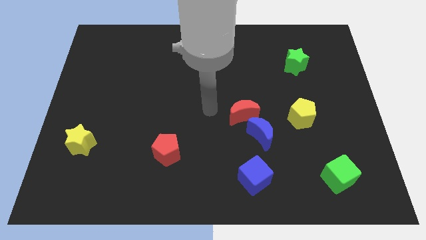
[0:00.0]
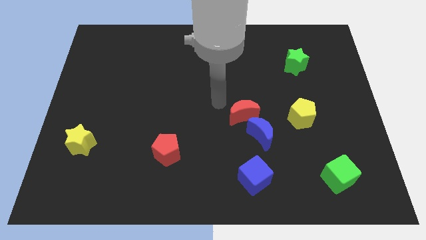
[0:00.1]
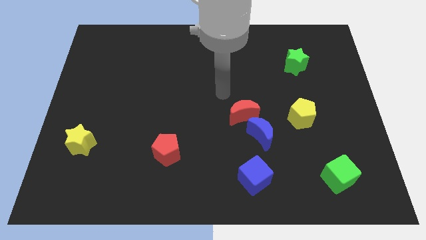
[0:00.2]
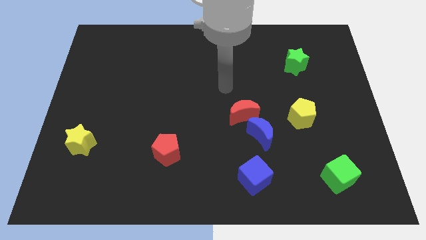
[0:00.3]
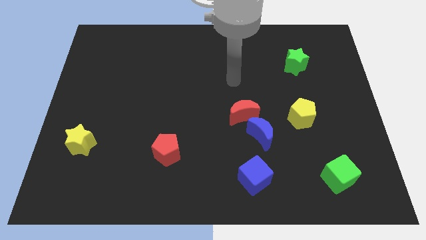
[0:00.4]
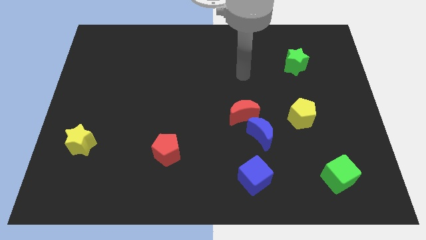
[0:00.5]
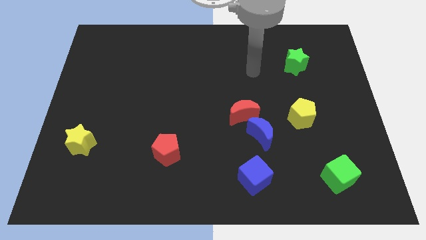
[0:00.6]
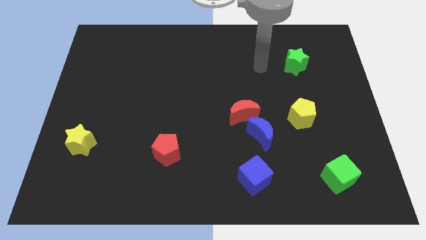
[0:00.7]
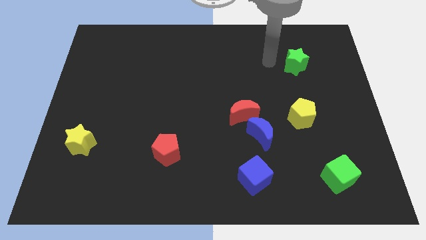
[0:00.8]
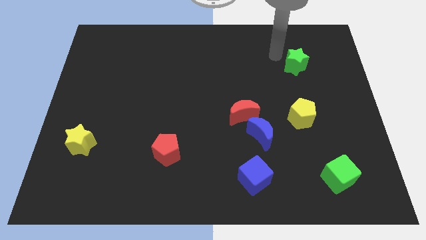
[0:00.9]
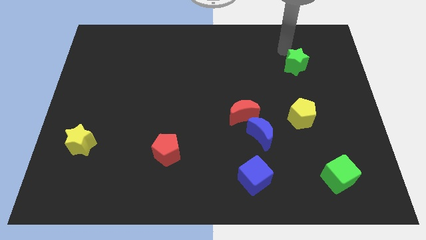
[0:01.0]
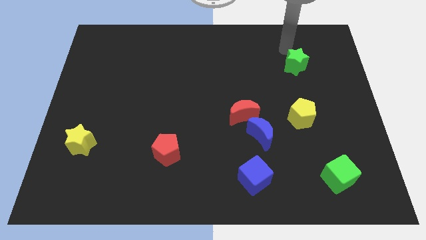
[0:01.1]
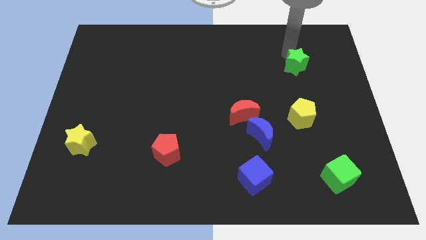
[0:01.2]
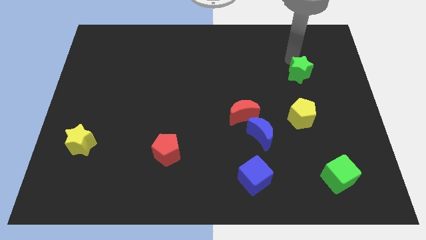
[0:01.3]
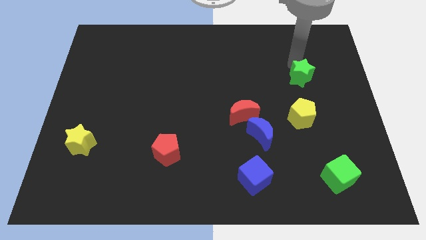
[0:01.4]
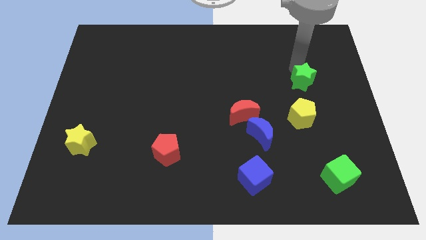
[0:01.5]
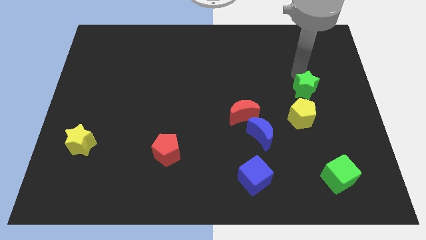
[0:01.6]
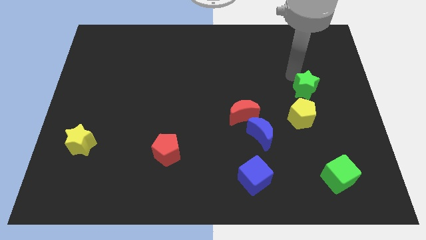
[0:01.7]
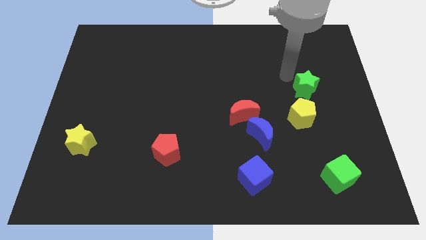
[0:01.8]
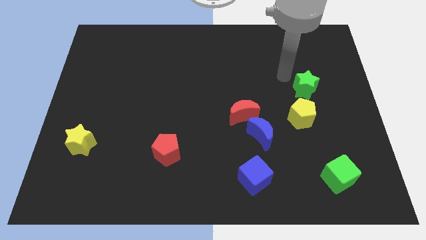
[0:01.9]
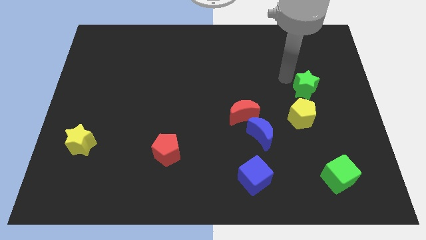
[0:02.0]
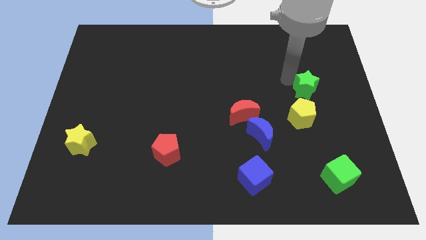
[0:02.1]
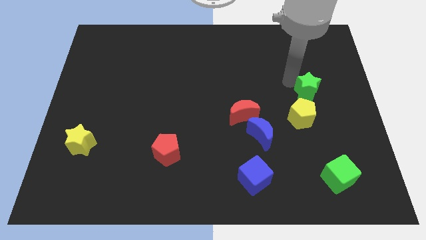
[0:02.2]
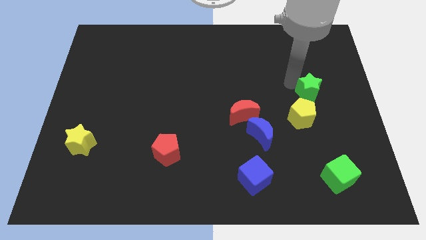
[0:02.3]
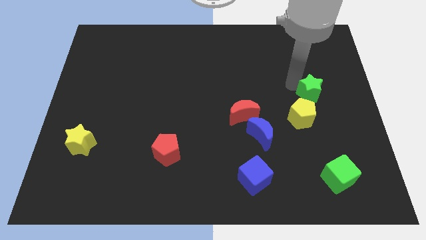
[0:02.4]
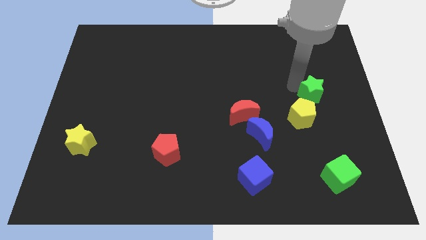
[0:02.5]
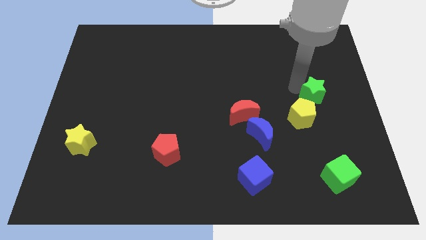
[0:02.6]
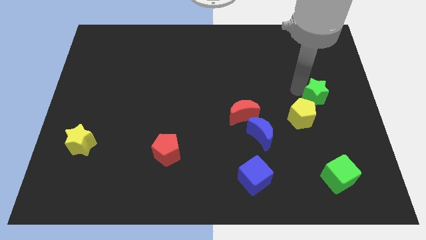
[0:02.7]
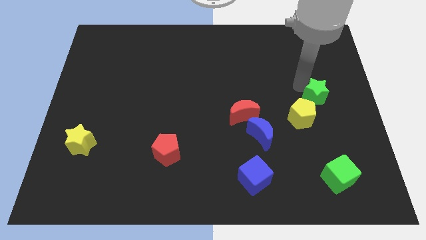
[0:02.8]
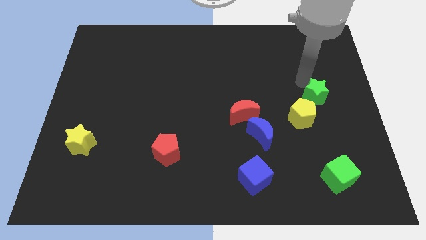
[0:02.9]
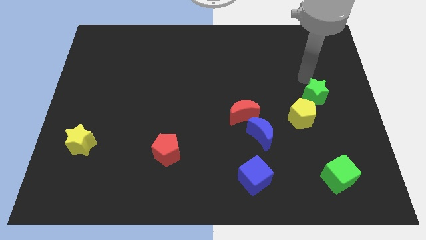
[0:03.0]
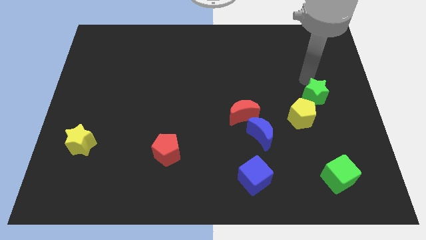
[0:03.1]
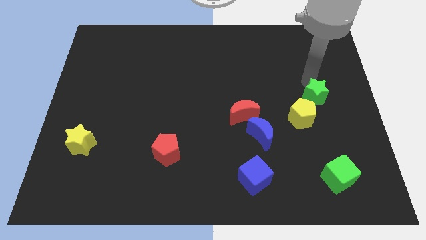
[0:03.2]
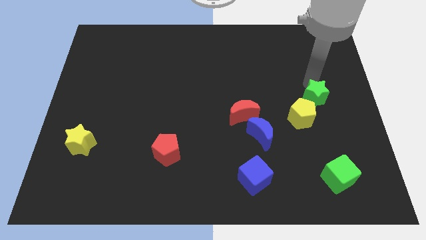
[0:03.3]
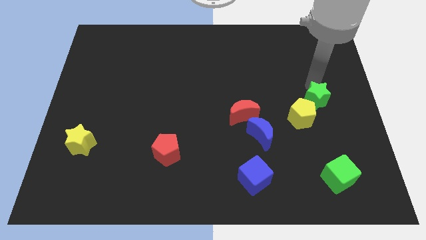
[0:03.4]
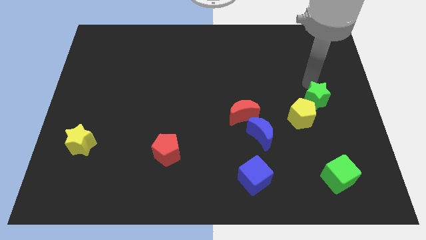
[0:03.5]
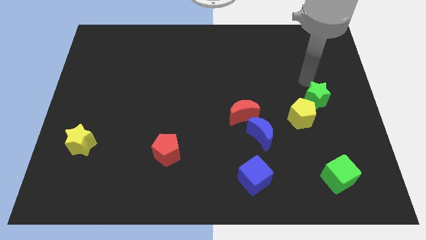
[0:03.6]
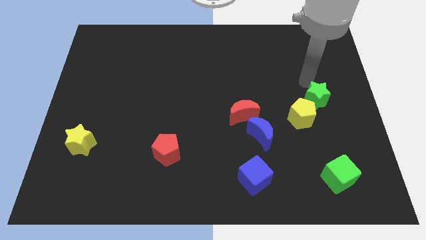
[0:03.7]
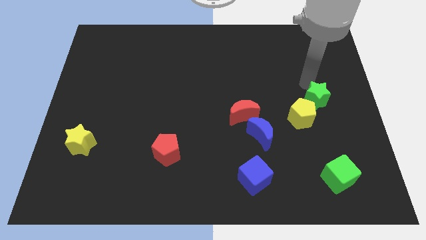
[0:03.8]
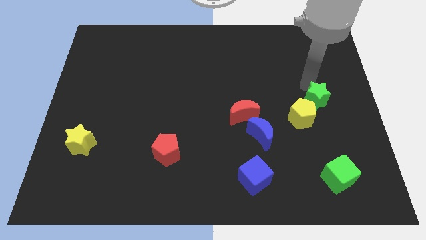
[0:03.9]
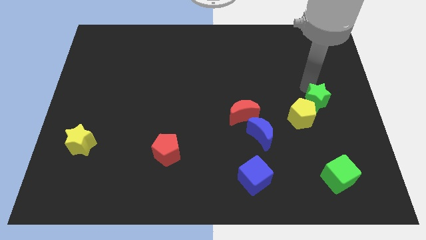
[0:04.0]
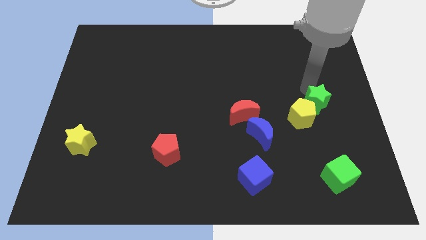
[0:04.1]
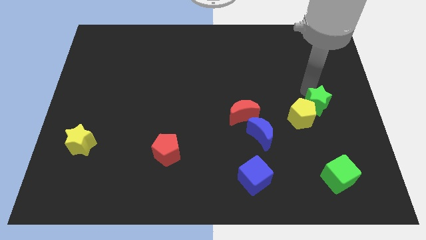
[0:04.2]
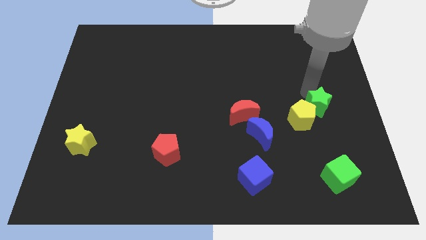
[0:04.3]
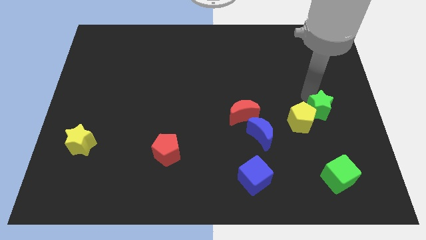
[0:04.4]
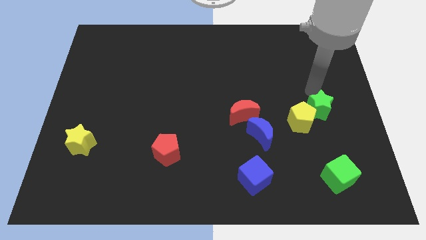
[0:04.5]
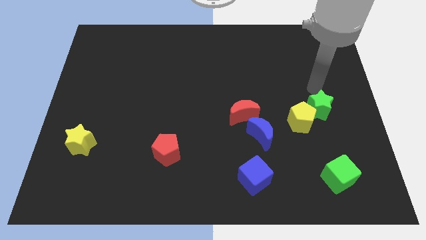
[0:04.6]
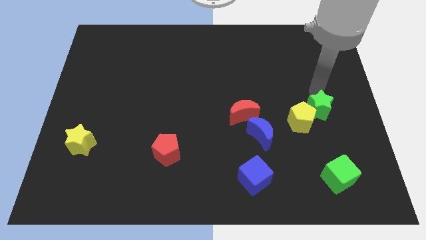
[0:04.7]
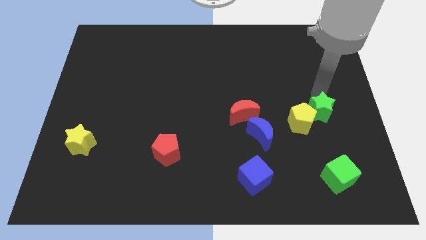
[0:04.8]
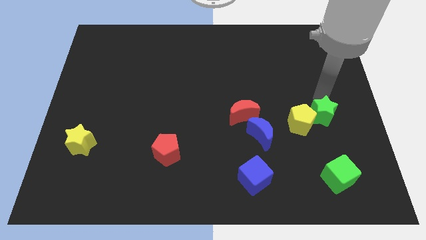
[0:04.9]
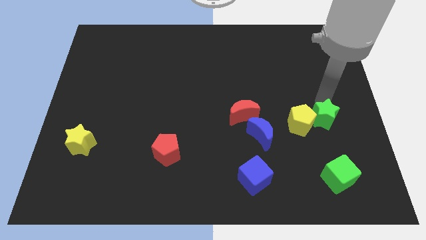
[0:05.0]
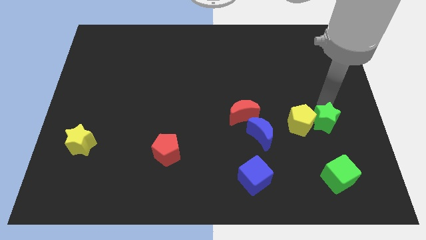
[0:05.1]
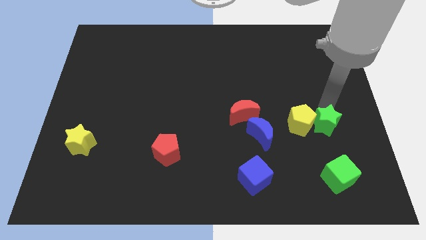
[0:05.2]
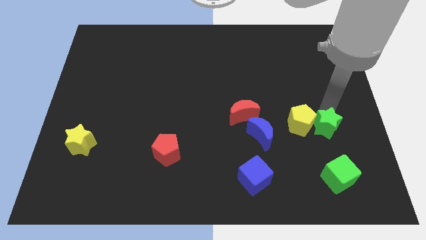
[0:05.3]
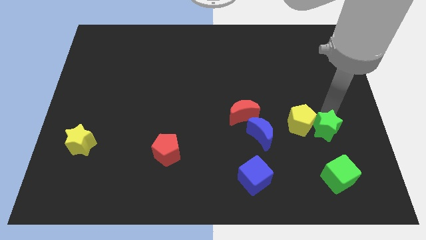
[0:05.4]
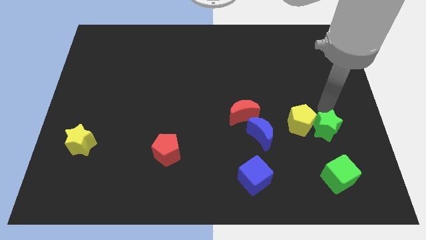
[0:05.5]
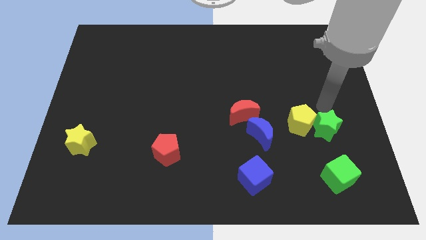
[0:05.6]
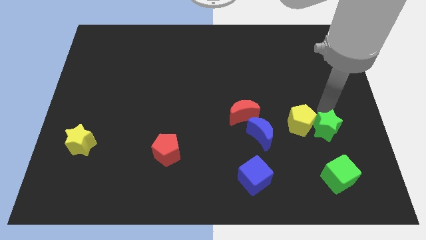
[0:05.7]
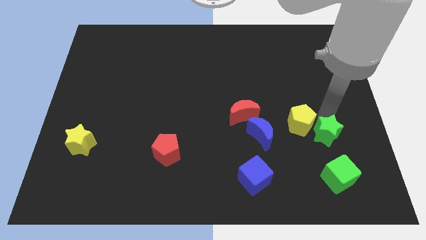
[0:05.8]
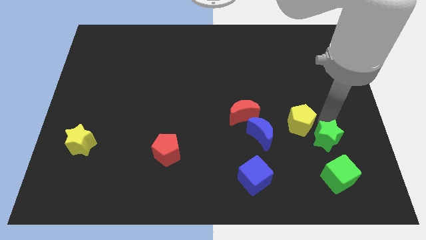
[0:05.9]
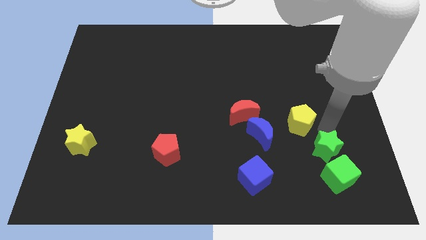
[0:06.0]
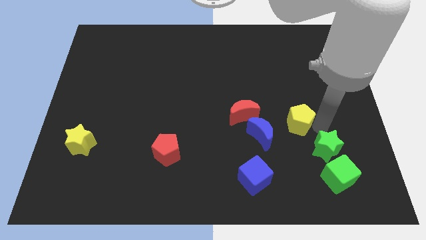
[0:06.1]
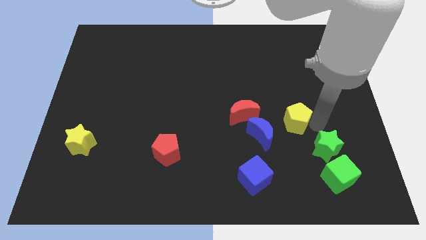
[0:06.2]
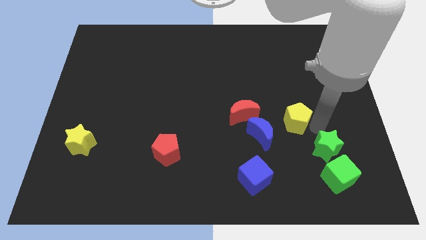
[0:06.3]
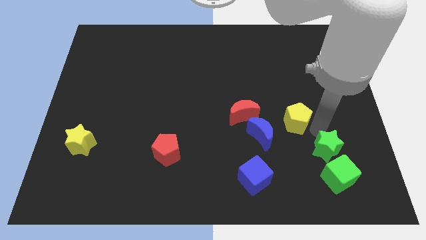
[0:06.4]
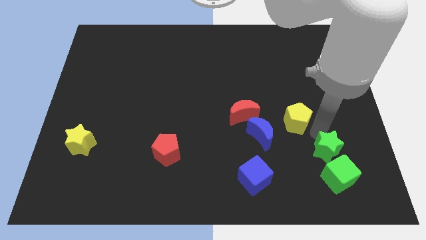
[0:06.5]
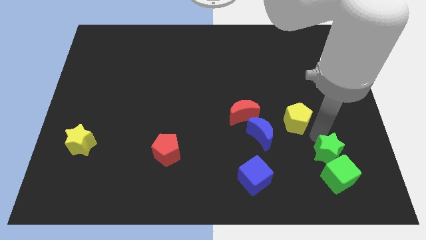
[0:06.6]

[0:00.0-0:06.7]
push the green star to the green cube

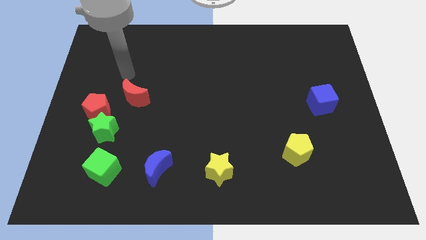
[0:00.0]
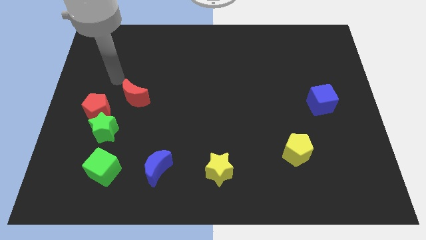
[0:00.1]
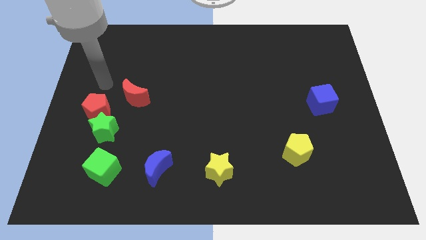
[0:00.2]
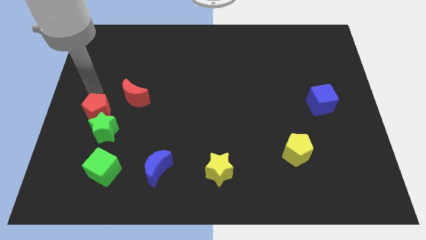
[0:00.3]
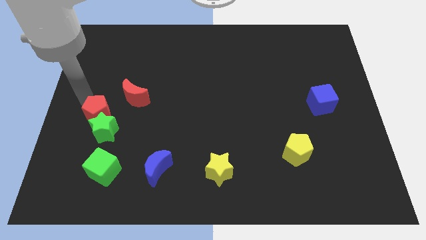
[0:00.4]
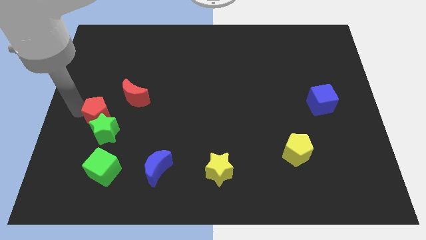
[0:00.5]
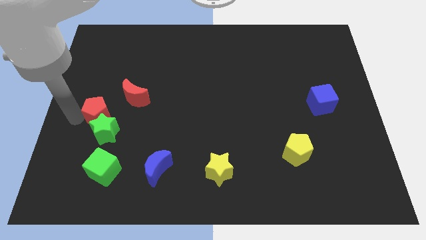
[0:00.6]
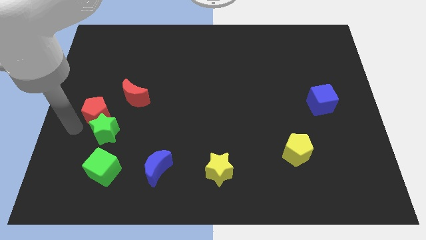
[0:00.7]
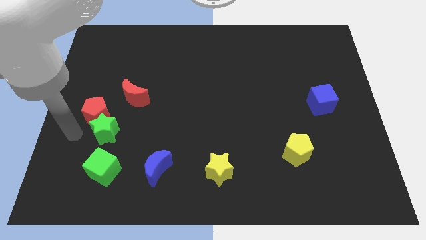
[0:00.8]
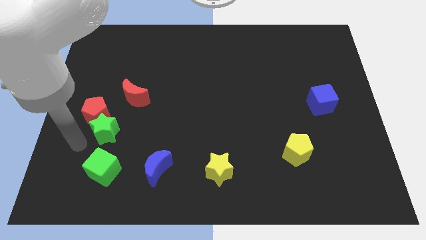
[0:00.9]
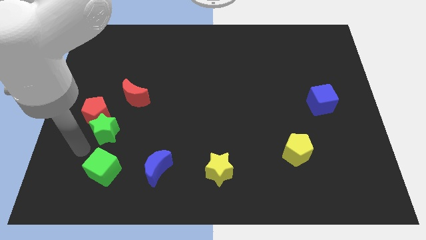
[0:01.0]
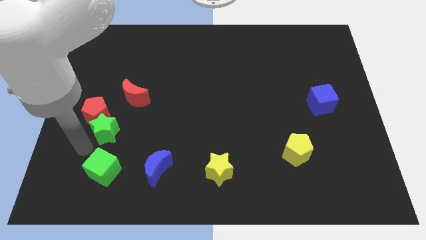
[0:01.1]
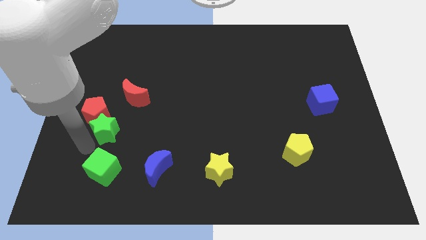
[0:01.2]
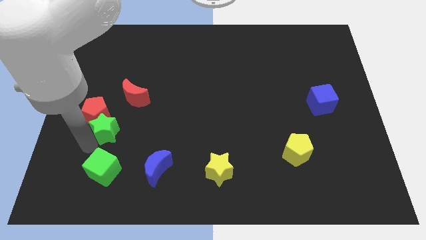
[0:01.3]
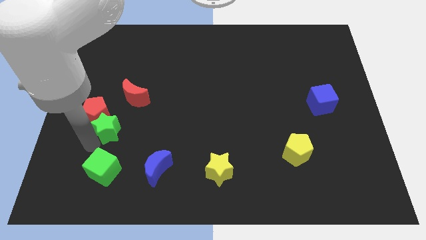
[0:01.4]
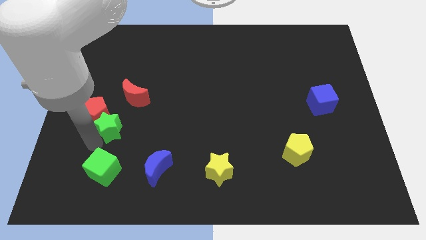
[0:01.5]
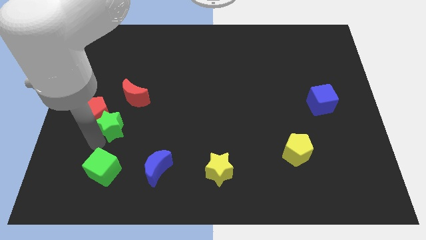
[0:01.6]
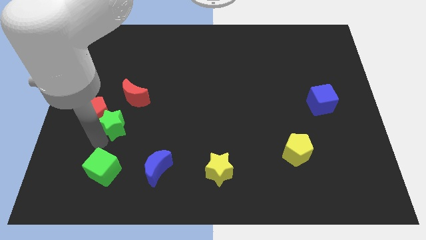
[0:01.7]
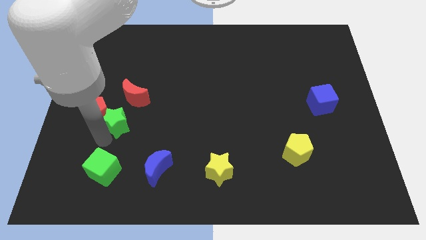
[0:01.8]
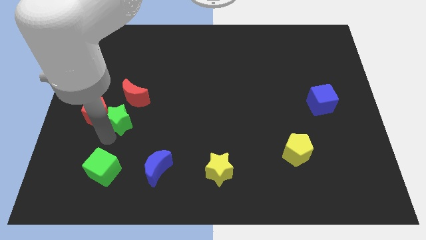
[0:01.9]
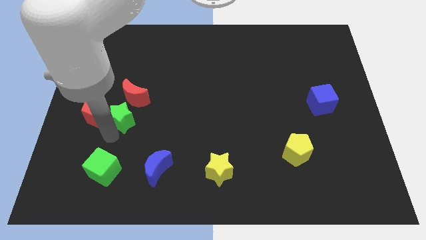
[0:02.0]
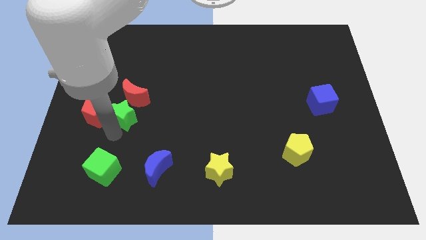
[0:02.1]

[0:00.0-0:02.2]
move the green star towards the red moon
